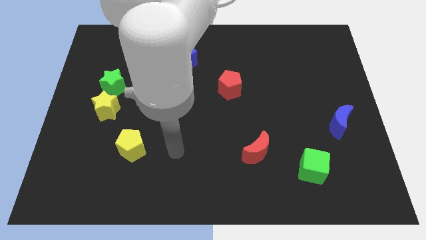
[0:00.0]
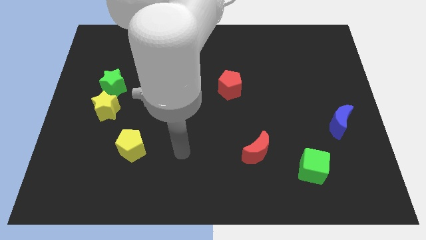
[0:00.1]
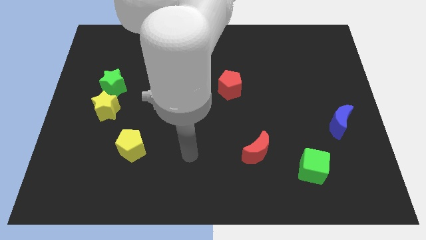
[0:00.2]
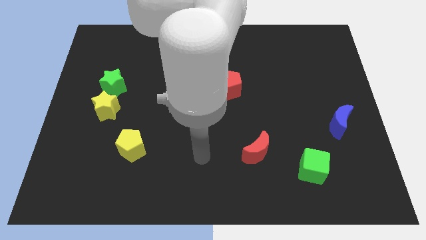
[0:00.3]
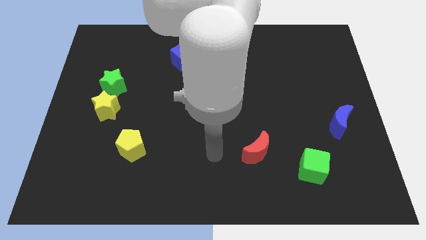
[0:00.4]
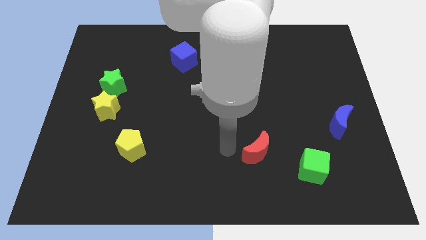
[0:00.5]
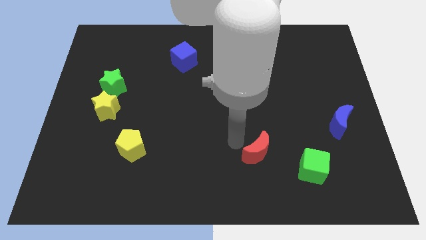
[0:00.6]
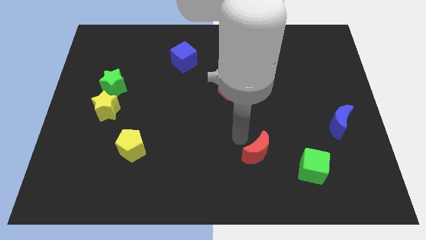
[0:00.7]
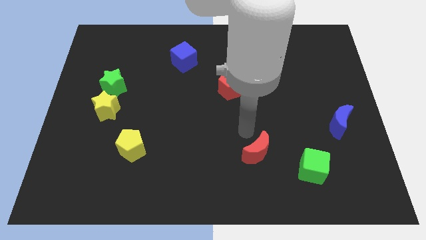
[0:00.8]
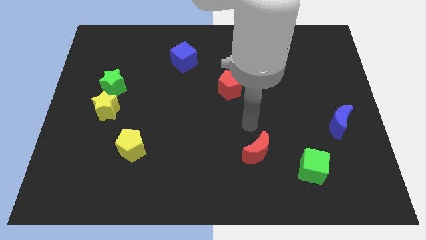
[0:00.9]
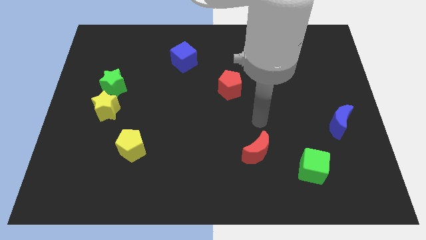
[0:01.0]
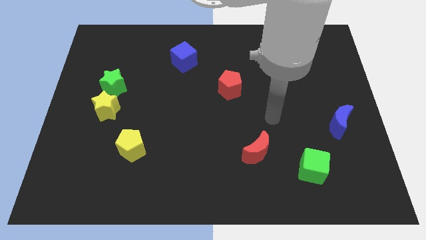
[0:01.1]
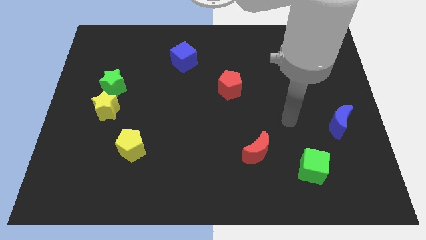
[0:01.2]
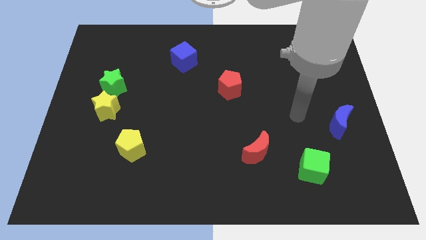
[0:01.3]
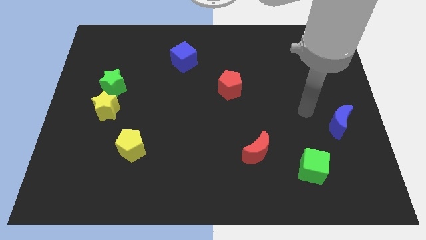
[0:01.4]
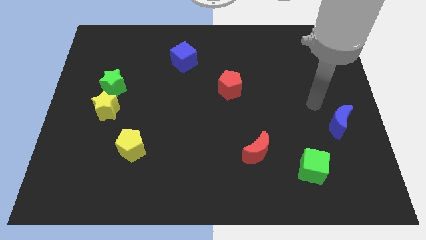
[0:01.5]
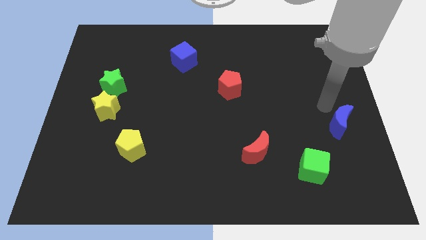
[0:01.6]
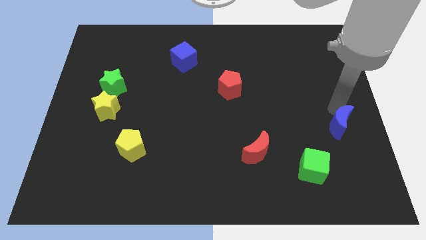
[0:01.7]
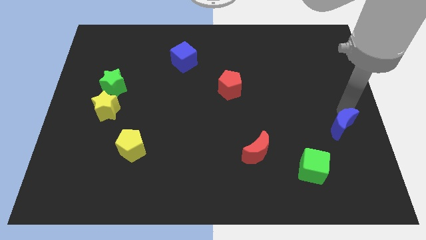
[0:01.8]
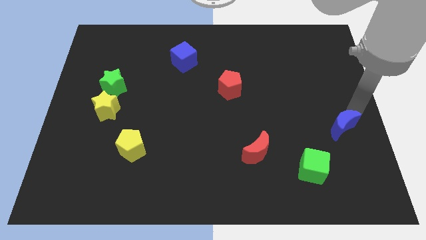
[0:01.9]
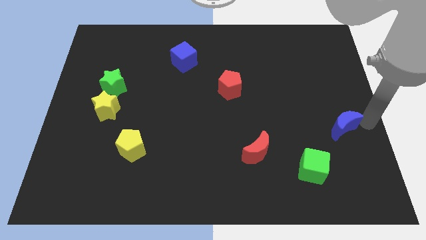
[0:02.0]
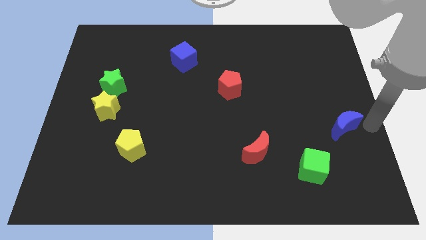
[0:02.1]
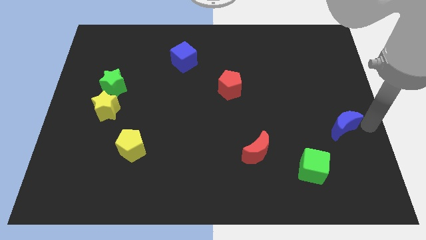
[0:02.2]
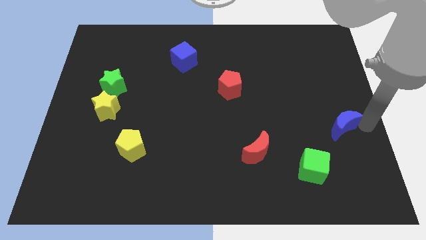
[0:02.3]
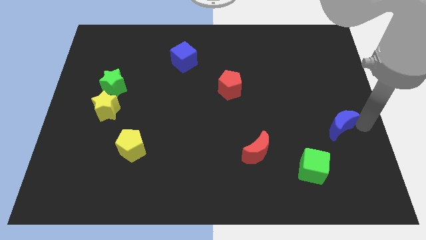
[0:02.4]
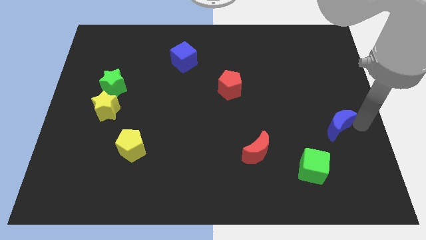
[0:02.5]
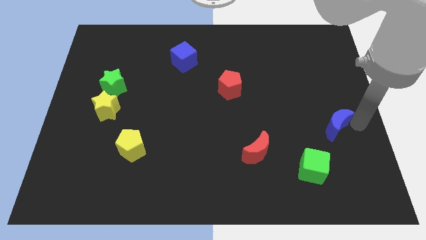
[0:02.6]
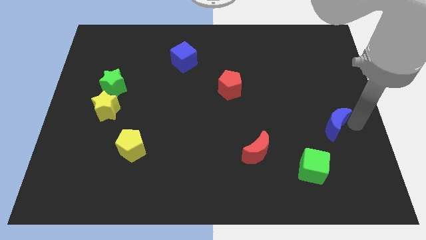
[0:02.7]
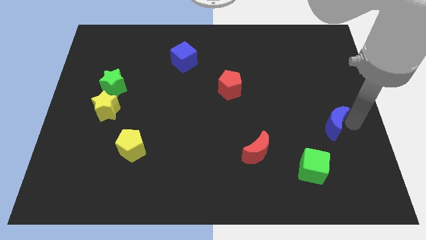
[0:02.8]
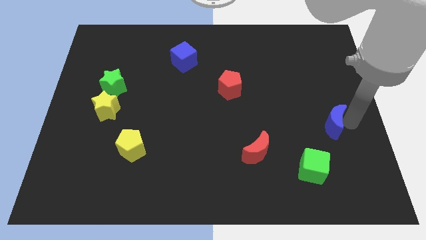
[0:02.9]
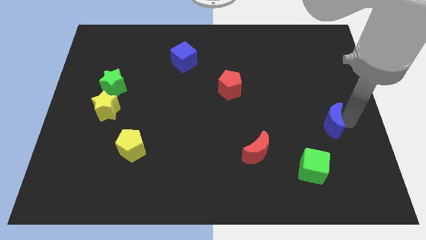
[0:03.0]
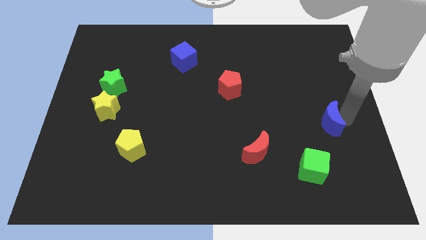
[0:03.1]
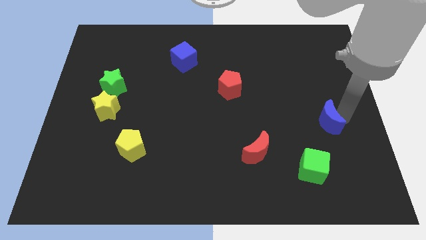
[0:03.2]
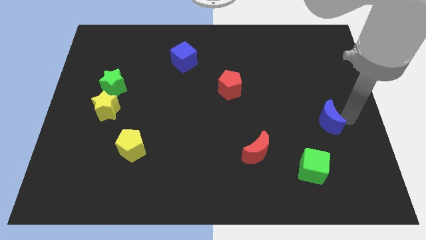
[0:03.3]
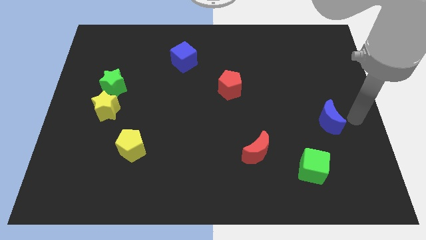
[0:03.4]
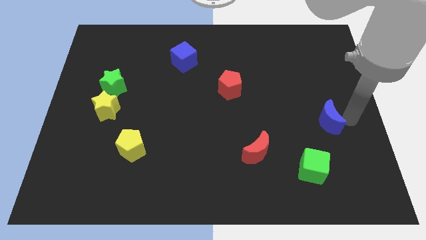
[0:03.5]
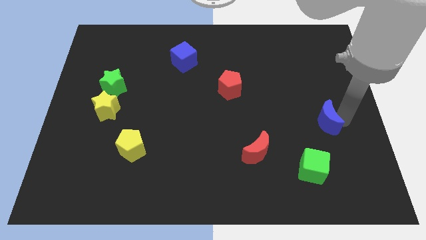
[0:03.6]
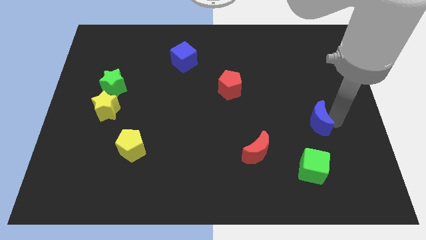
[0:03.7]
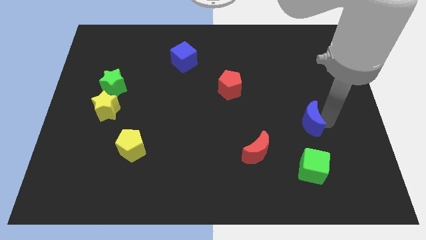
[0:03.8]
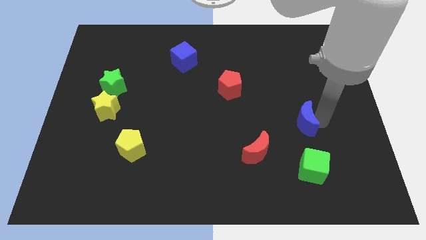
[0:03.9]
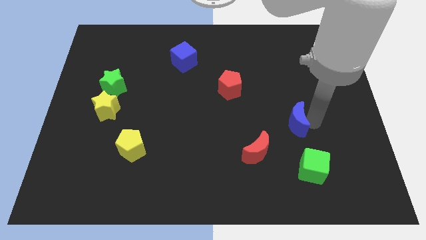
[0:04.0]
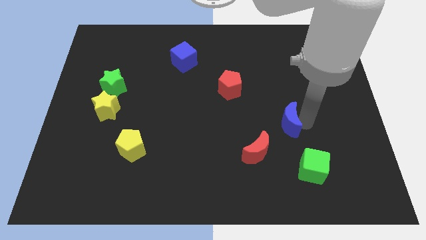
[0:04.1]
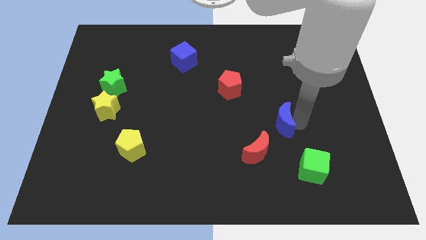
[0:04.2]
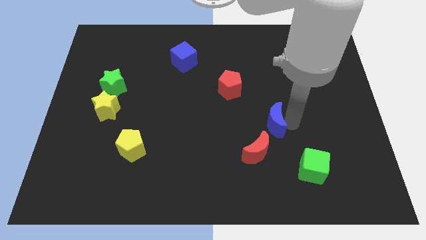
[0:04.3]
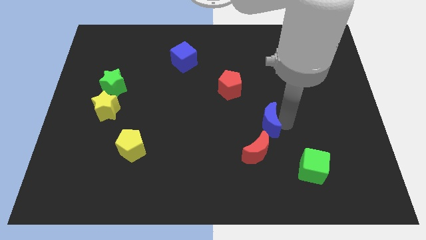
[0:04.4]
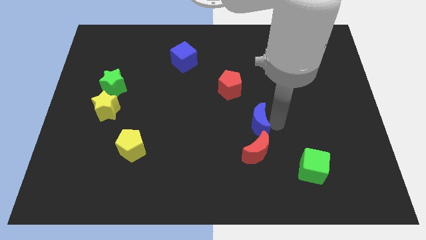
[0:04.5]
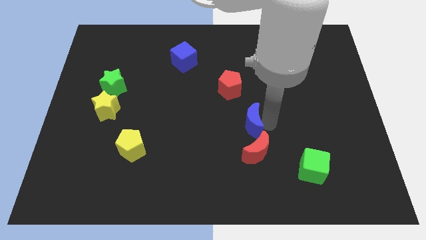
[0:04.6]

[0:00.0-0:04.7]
push the blue moon to the bottom side of the red pentagon

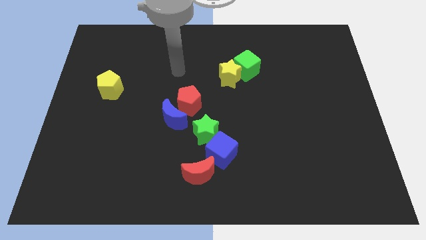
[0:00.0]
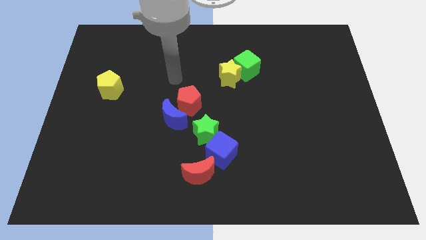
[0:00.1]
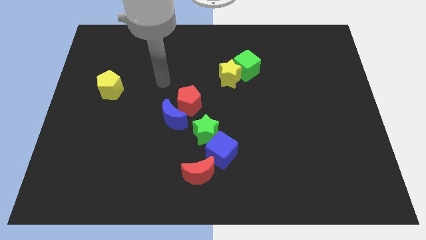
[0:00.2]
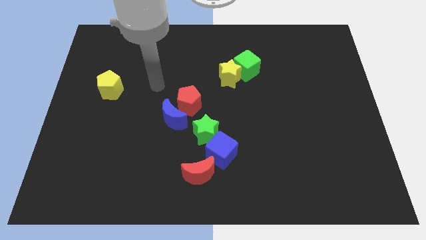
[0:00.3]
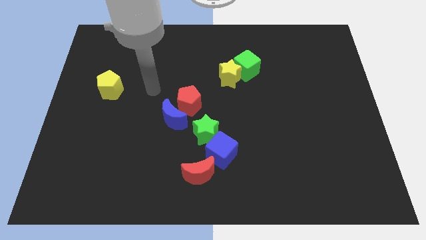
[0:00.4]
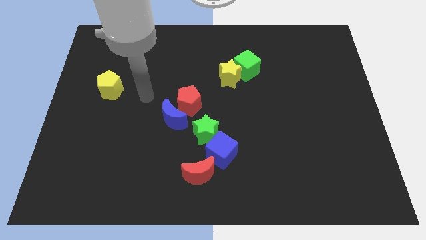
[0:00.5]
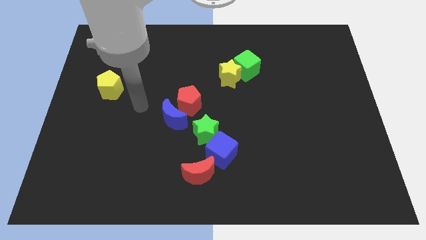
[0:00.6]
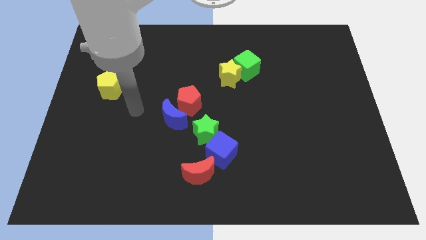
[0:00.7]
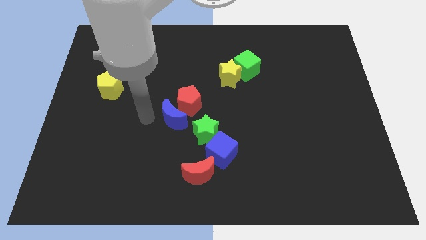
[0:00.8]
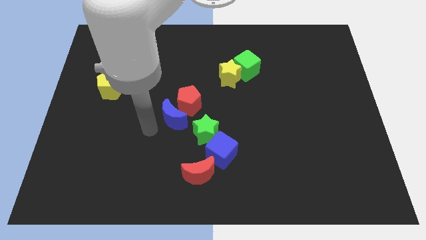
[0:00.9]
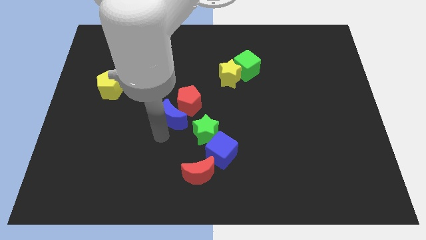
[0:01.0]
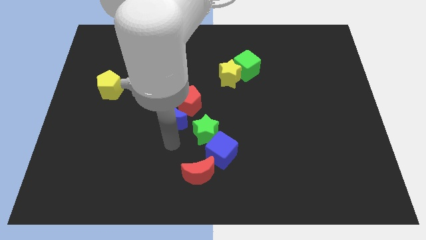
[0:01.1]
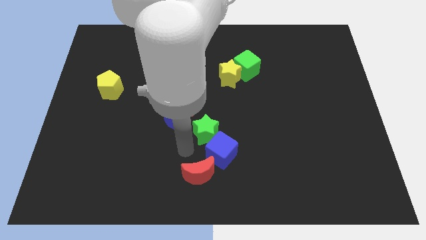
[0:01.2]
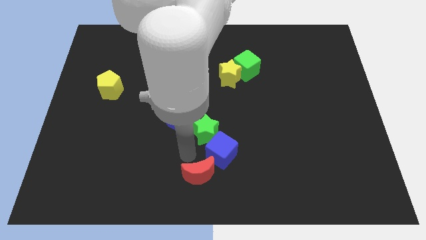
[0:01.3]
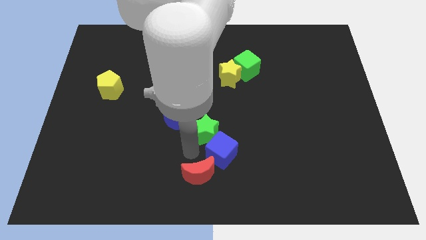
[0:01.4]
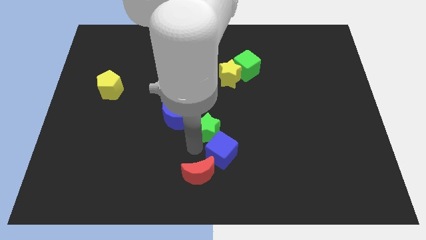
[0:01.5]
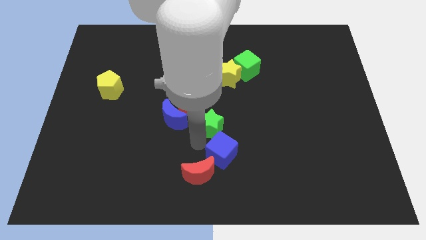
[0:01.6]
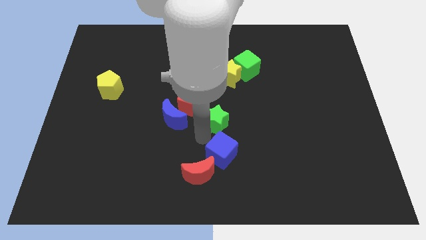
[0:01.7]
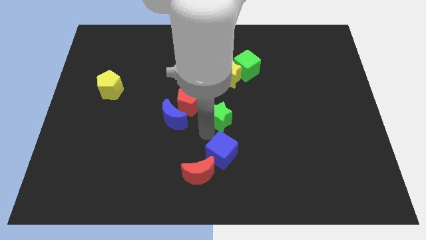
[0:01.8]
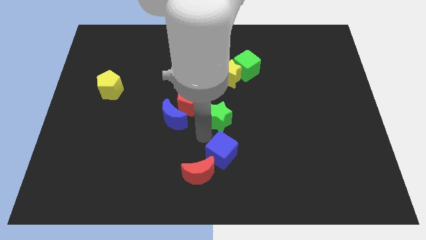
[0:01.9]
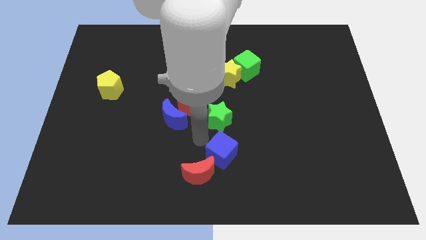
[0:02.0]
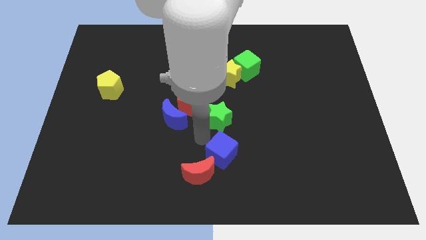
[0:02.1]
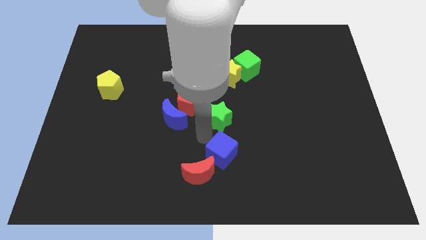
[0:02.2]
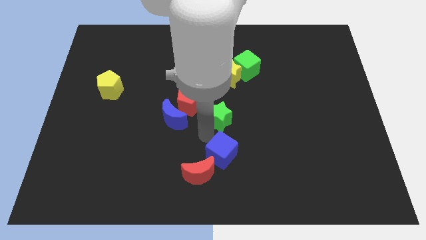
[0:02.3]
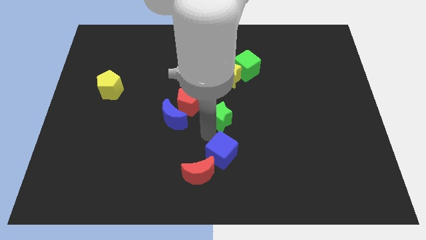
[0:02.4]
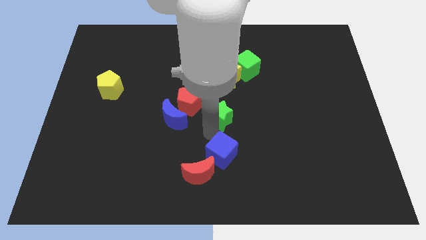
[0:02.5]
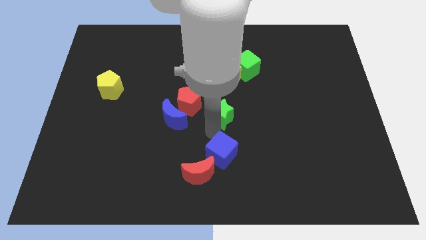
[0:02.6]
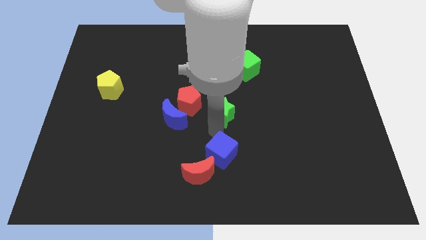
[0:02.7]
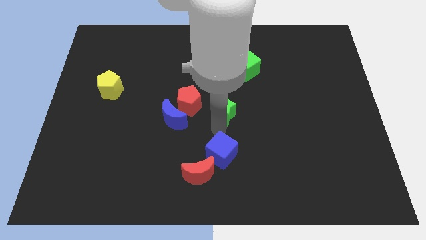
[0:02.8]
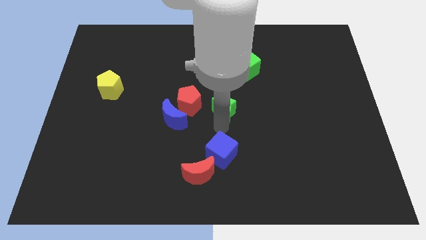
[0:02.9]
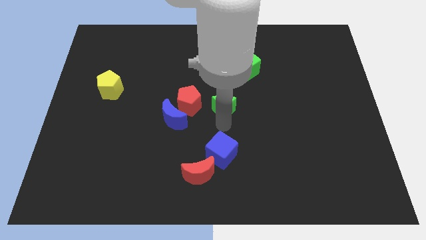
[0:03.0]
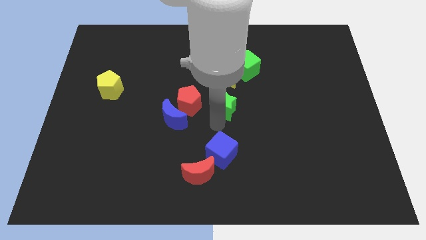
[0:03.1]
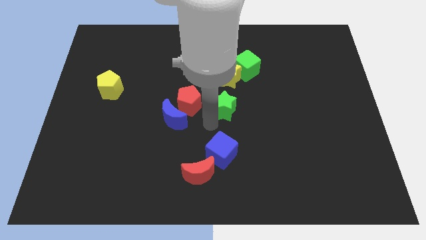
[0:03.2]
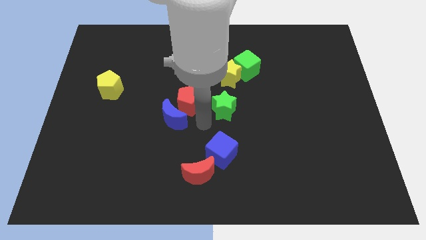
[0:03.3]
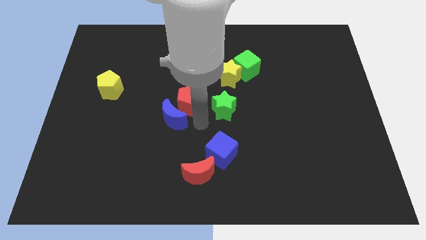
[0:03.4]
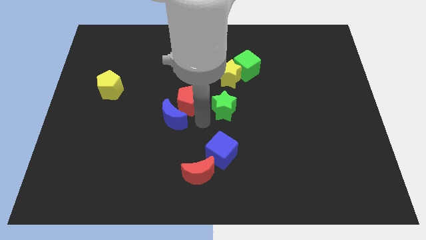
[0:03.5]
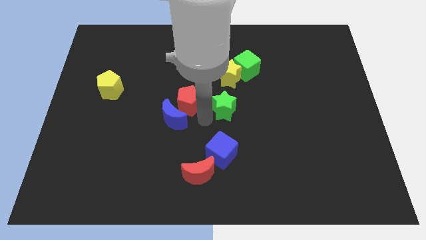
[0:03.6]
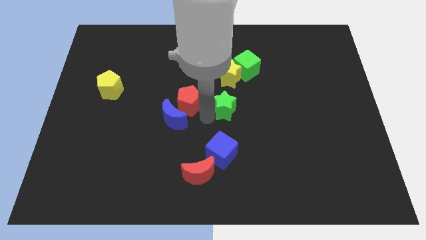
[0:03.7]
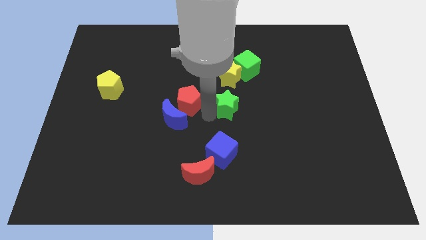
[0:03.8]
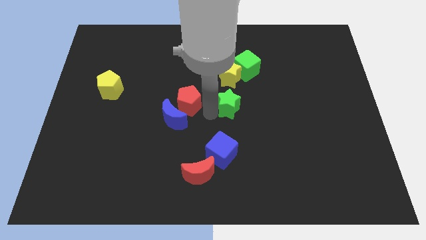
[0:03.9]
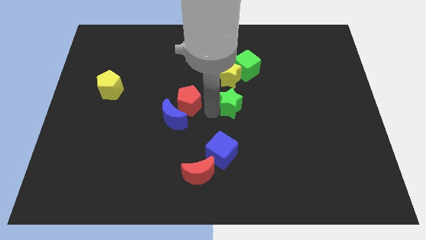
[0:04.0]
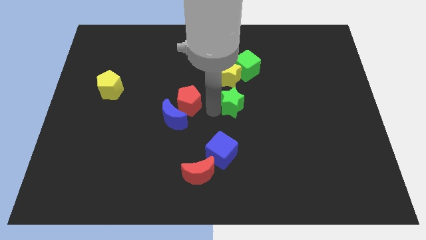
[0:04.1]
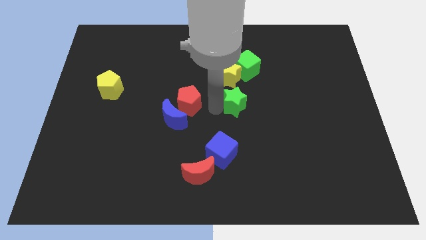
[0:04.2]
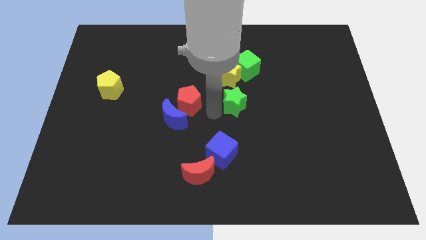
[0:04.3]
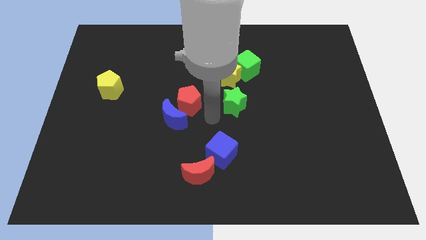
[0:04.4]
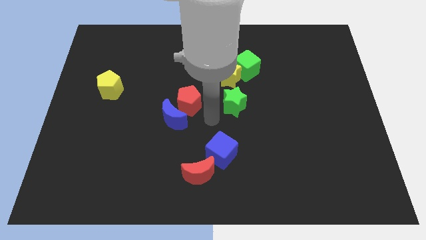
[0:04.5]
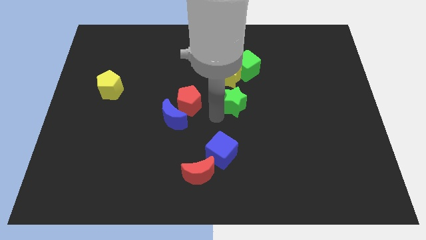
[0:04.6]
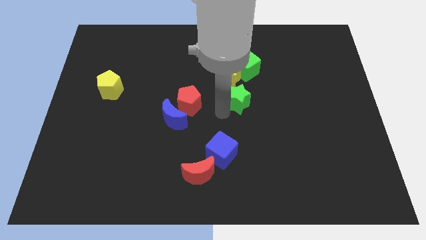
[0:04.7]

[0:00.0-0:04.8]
put the green star to the bottom right of the yellow star
